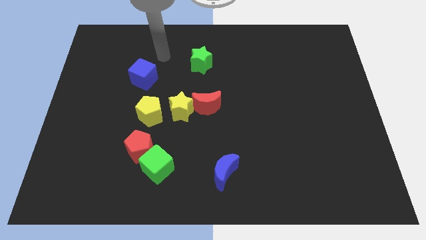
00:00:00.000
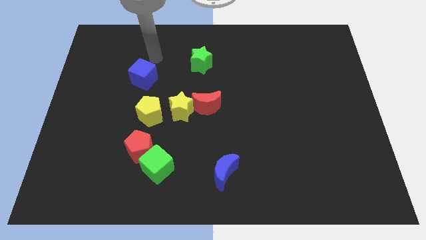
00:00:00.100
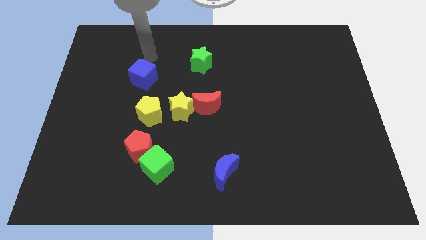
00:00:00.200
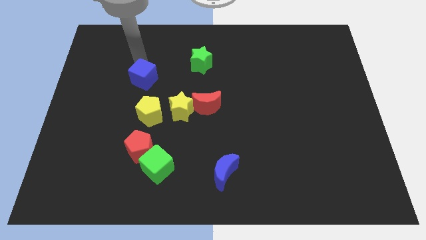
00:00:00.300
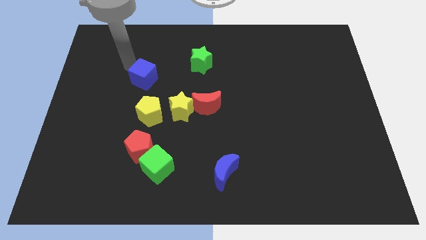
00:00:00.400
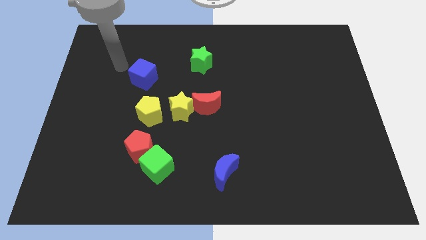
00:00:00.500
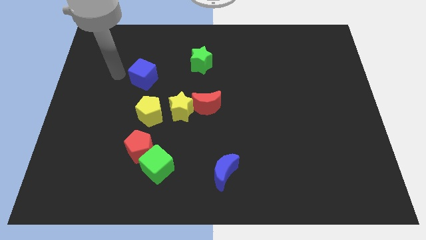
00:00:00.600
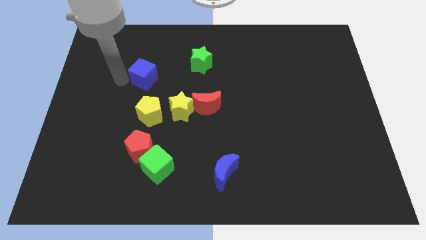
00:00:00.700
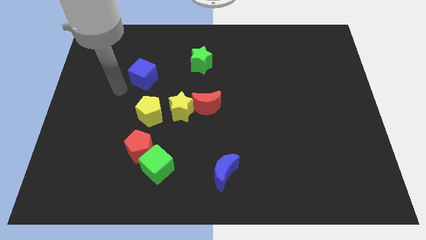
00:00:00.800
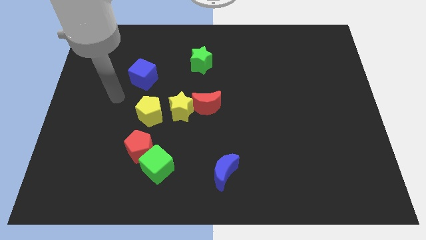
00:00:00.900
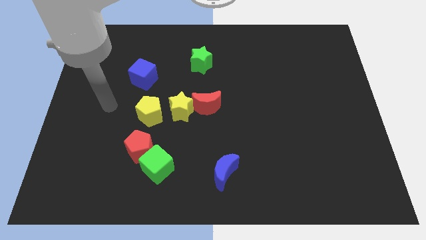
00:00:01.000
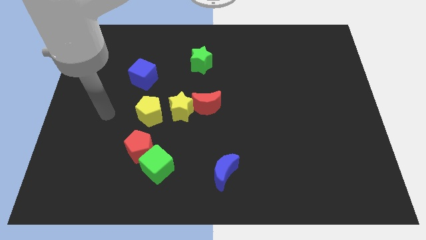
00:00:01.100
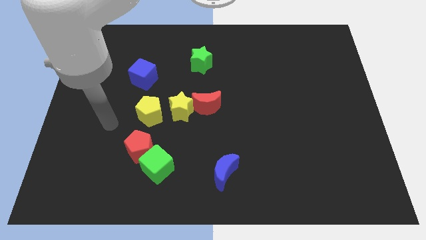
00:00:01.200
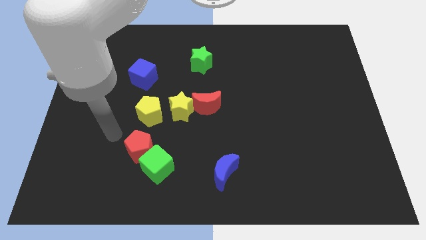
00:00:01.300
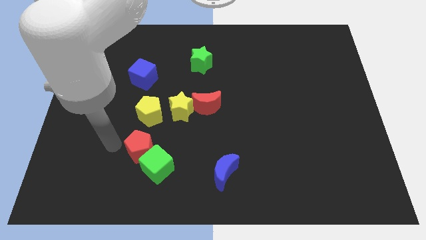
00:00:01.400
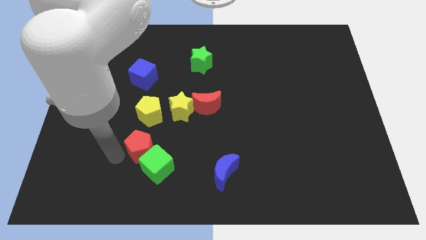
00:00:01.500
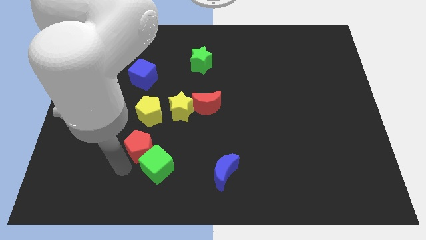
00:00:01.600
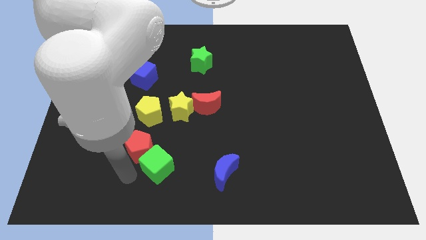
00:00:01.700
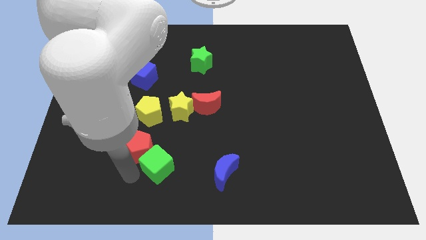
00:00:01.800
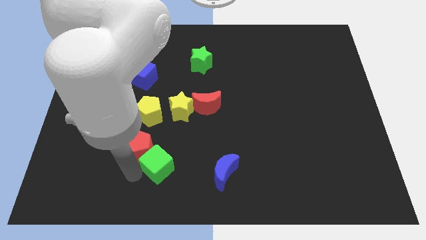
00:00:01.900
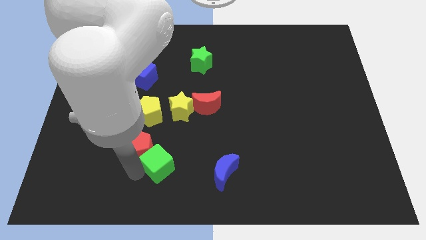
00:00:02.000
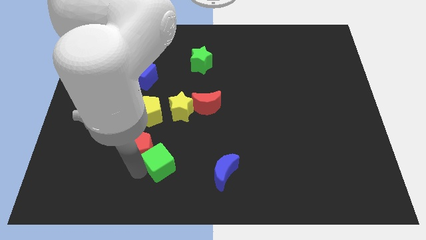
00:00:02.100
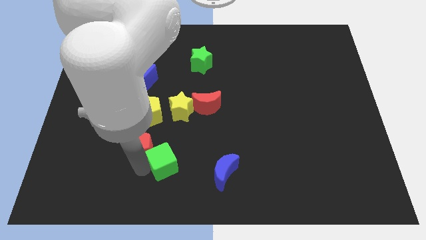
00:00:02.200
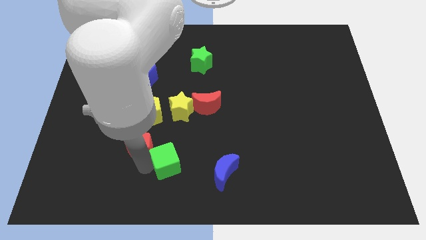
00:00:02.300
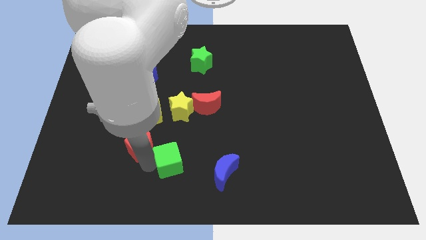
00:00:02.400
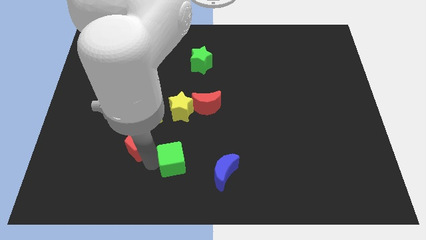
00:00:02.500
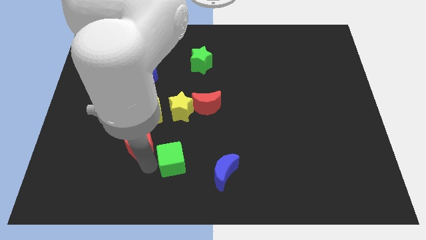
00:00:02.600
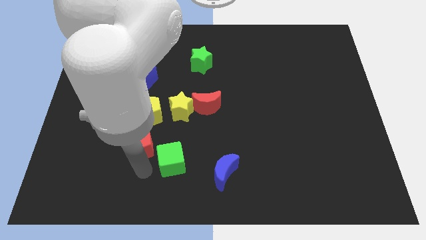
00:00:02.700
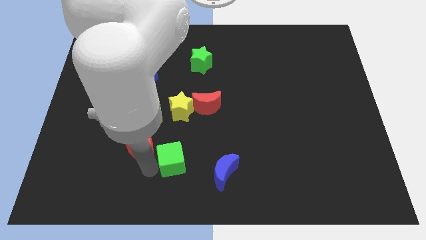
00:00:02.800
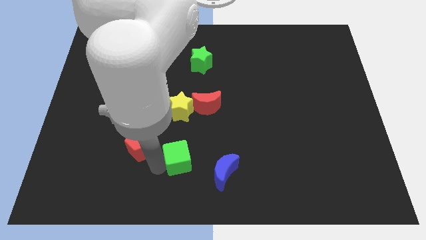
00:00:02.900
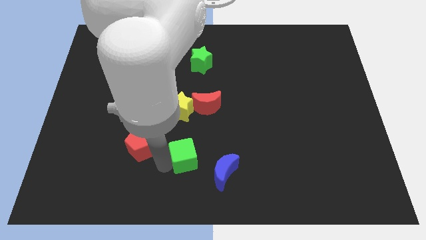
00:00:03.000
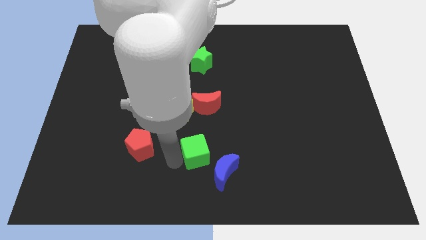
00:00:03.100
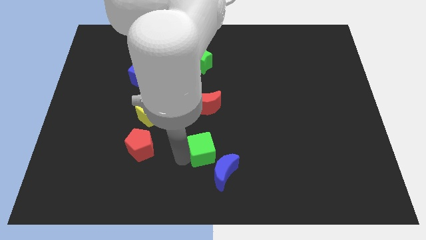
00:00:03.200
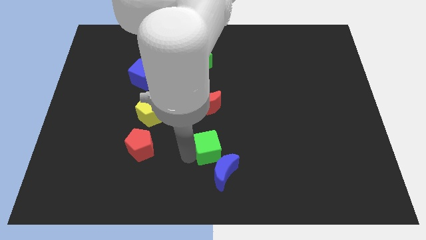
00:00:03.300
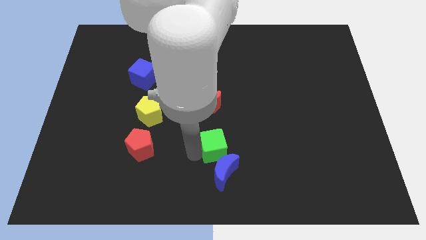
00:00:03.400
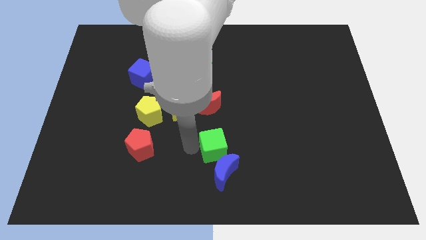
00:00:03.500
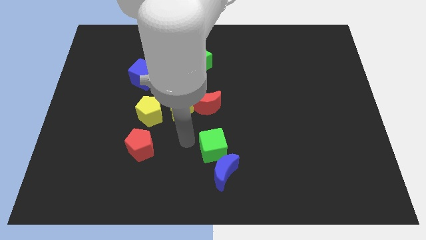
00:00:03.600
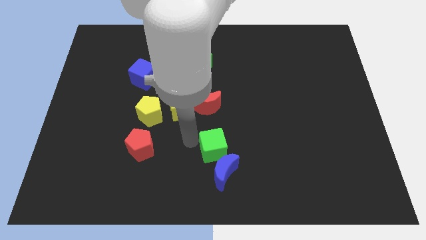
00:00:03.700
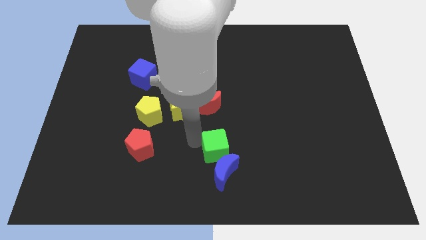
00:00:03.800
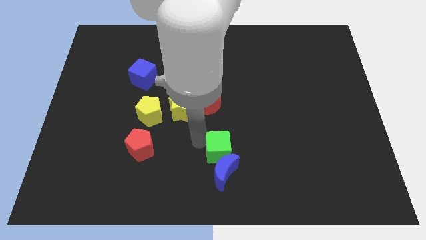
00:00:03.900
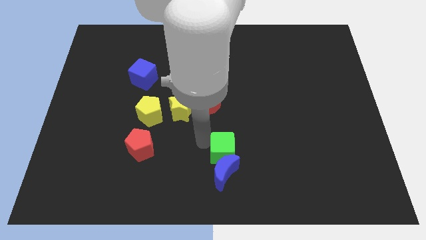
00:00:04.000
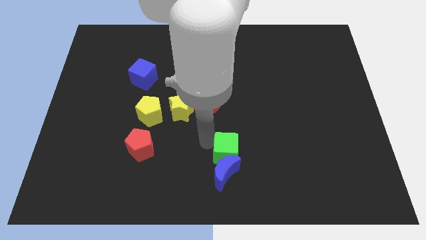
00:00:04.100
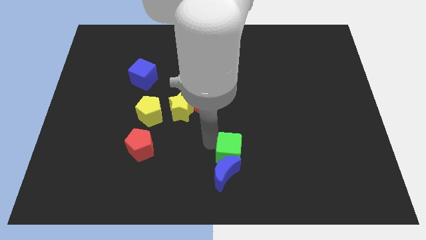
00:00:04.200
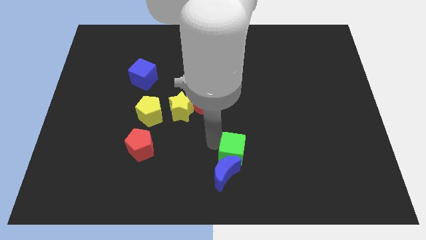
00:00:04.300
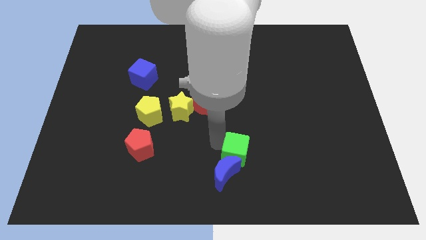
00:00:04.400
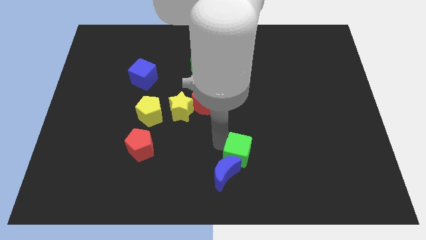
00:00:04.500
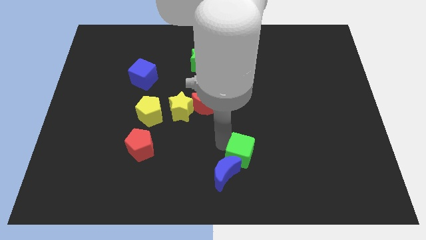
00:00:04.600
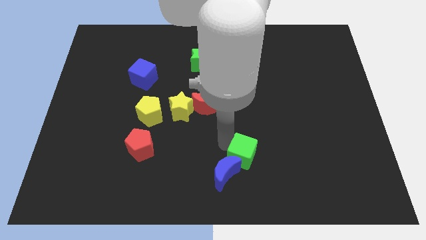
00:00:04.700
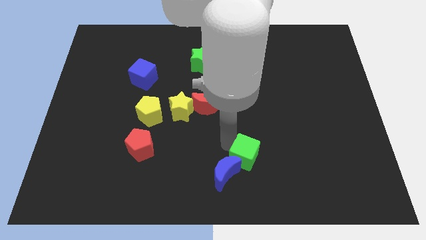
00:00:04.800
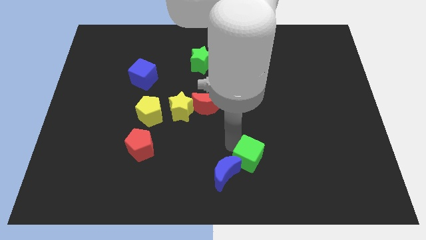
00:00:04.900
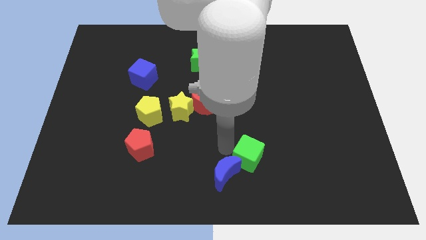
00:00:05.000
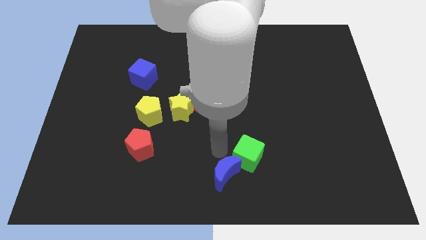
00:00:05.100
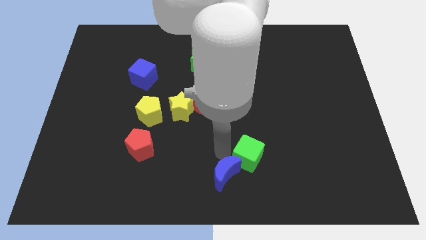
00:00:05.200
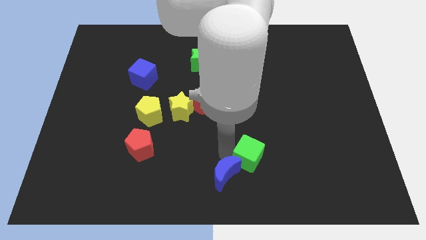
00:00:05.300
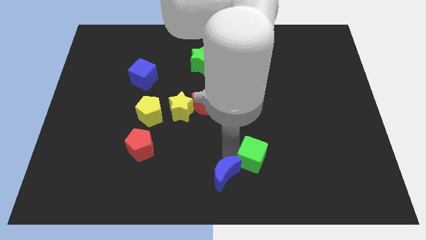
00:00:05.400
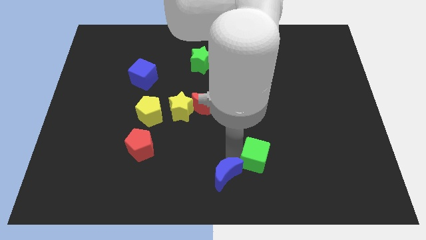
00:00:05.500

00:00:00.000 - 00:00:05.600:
move the green cube right

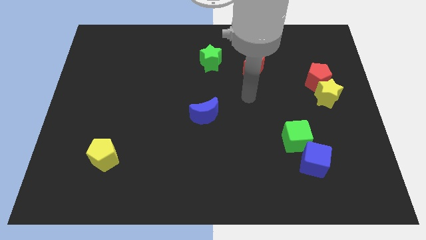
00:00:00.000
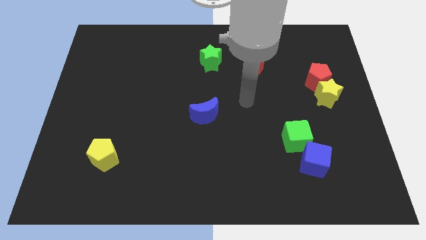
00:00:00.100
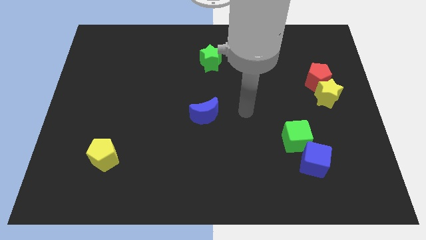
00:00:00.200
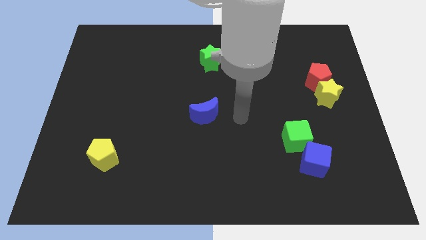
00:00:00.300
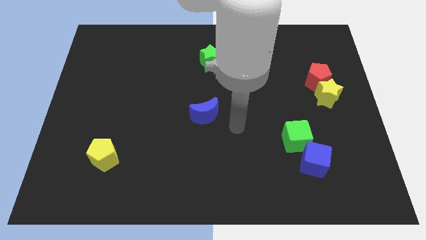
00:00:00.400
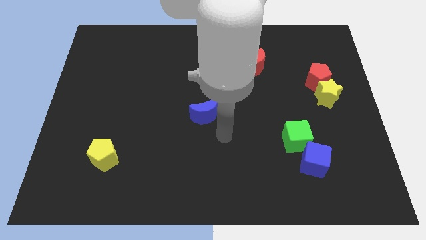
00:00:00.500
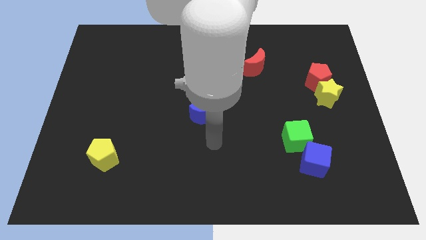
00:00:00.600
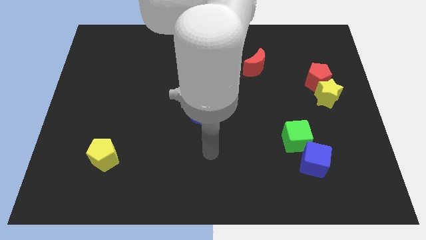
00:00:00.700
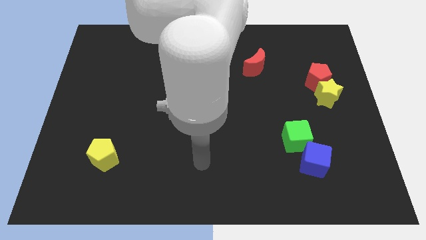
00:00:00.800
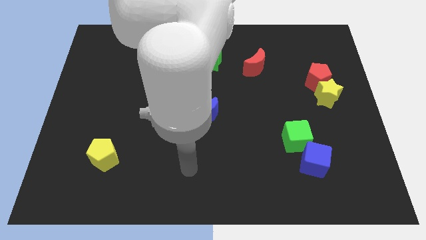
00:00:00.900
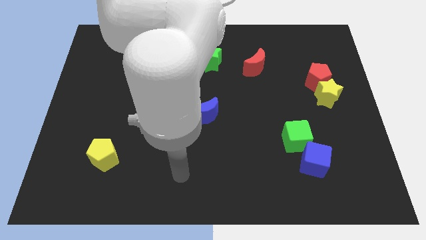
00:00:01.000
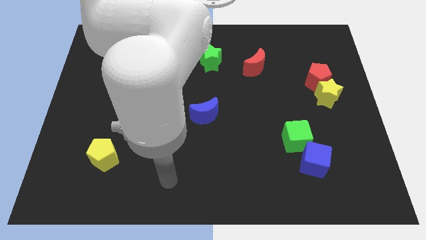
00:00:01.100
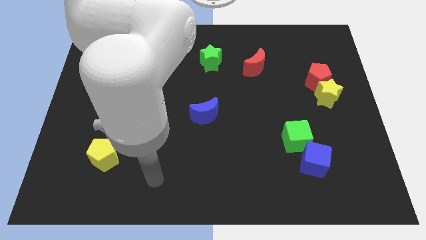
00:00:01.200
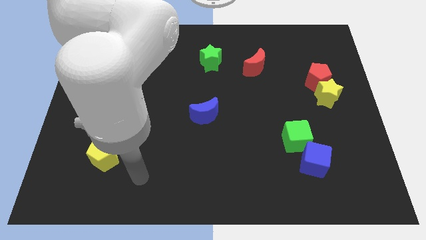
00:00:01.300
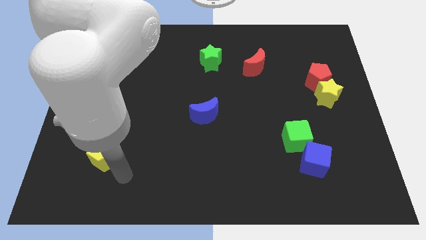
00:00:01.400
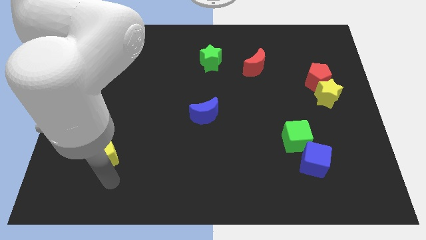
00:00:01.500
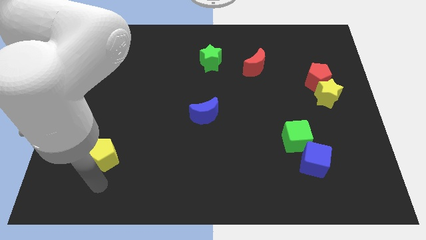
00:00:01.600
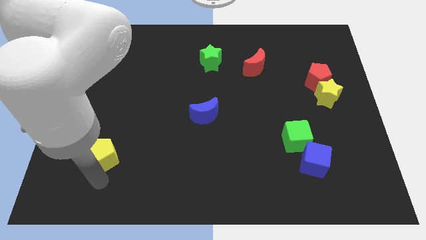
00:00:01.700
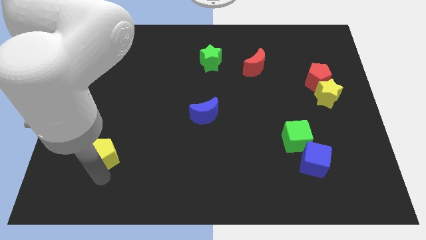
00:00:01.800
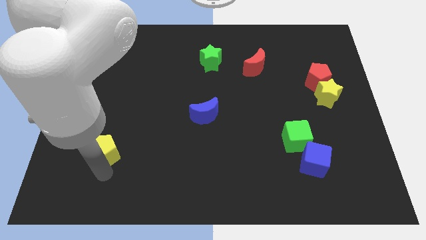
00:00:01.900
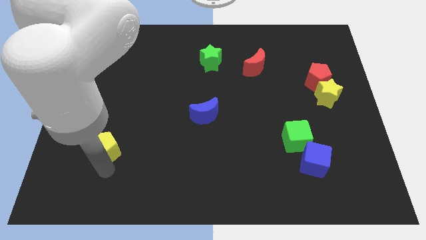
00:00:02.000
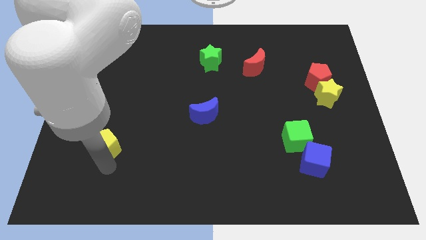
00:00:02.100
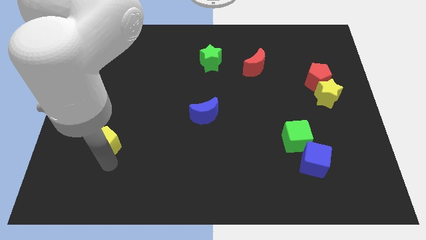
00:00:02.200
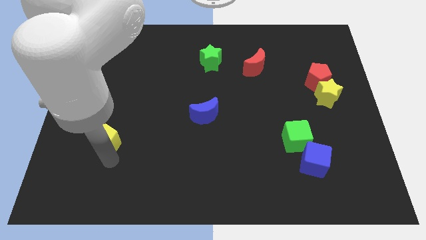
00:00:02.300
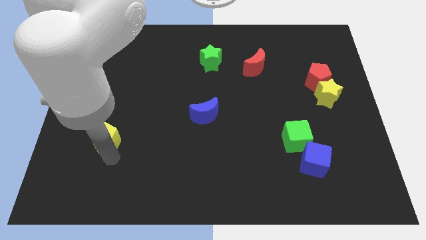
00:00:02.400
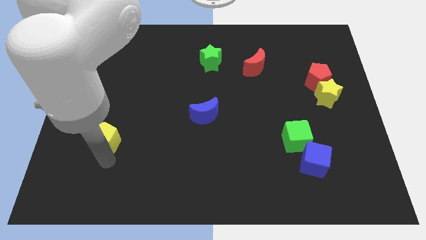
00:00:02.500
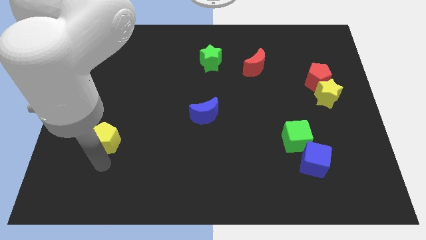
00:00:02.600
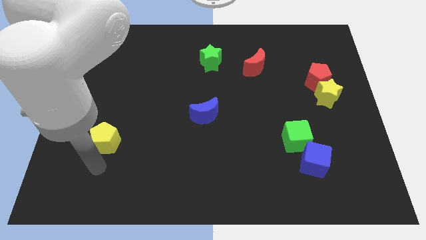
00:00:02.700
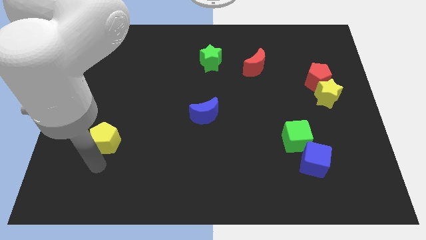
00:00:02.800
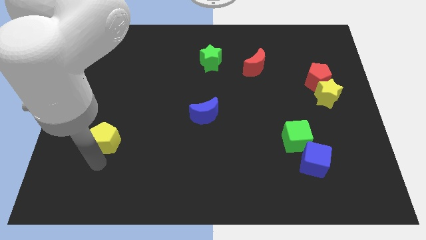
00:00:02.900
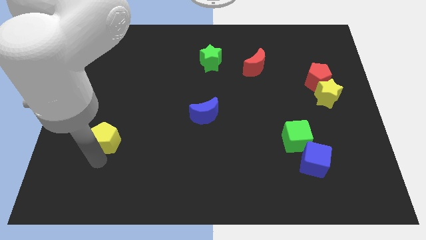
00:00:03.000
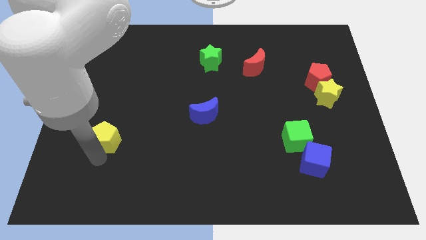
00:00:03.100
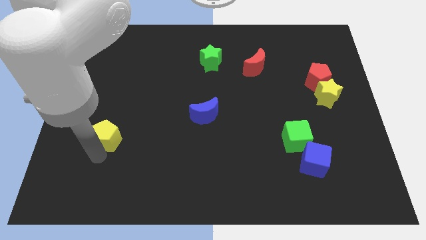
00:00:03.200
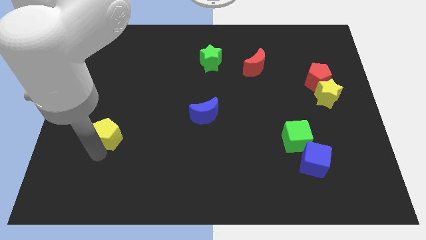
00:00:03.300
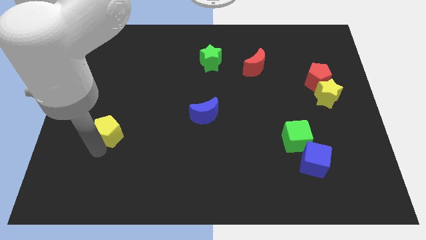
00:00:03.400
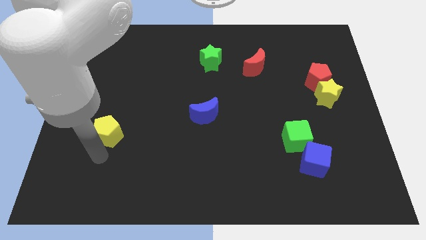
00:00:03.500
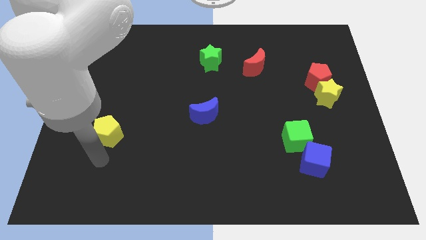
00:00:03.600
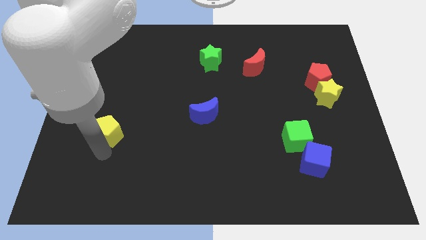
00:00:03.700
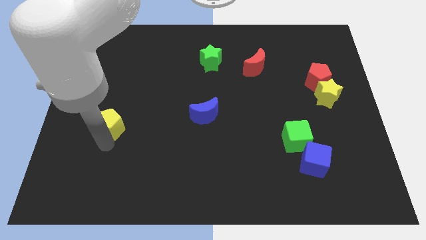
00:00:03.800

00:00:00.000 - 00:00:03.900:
slide the yellow pentagon a bit upwards
